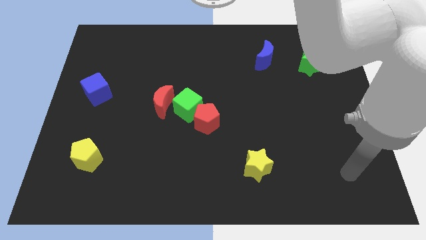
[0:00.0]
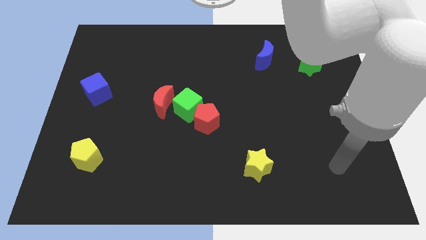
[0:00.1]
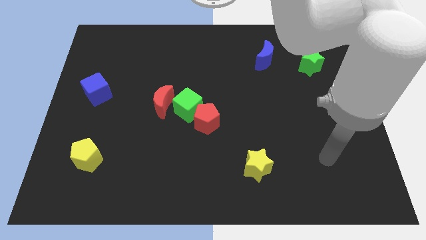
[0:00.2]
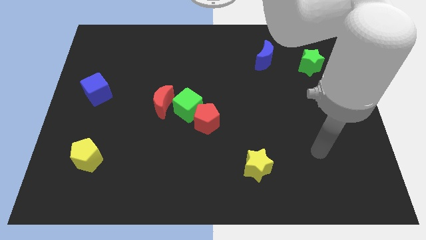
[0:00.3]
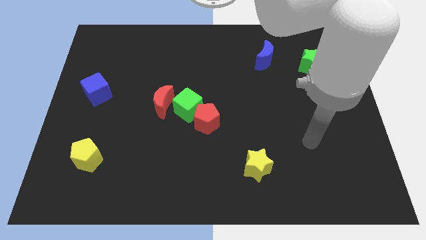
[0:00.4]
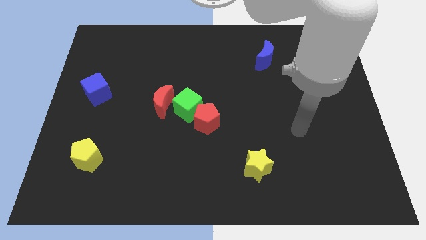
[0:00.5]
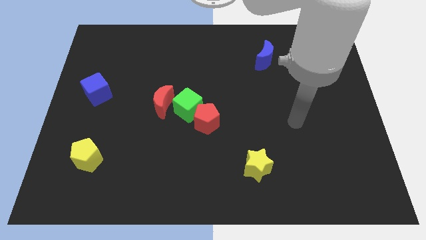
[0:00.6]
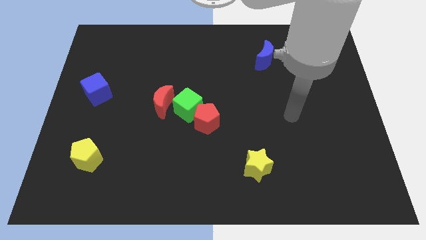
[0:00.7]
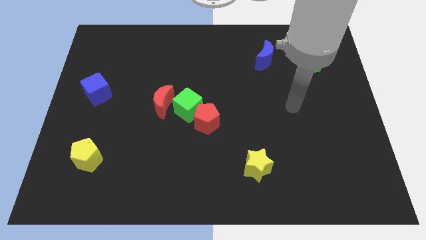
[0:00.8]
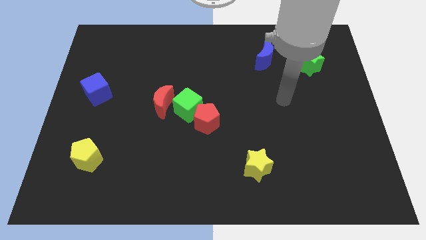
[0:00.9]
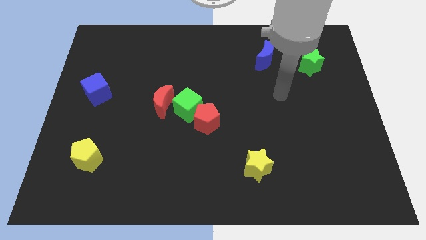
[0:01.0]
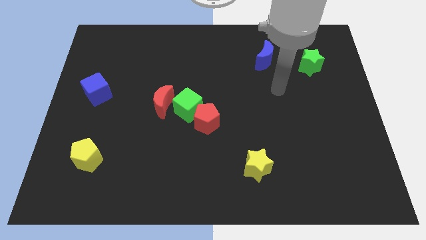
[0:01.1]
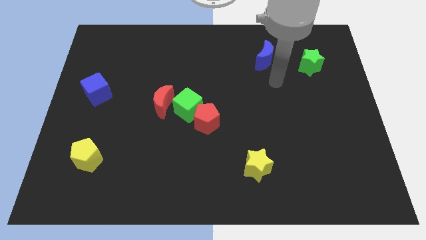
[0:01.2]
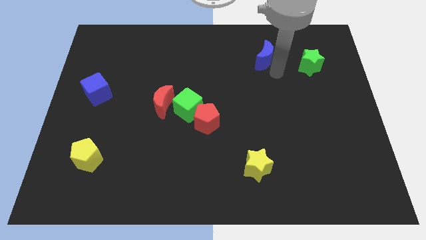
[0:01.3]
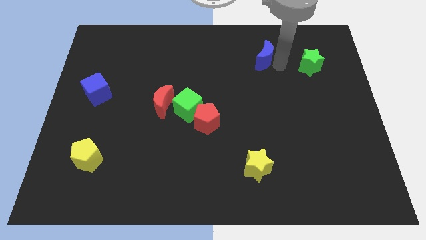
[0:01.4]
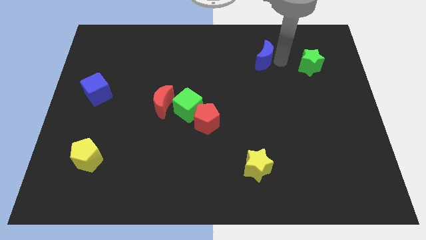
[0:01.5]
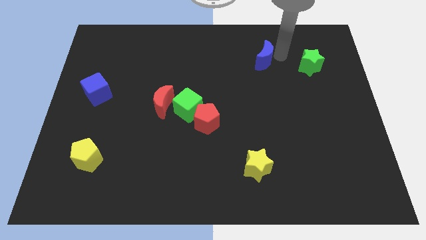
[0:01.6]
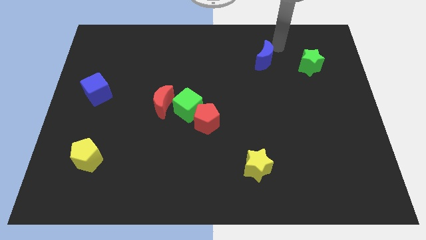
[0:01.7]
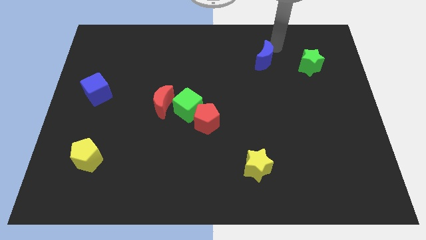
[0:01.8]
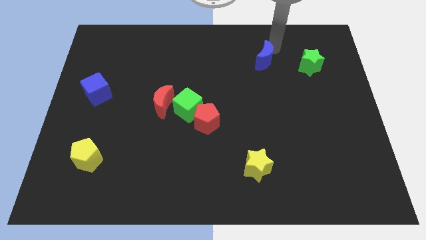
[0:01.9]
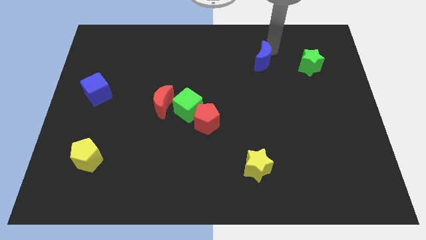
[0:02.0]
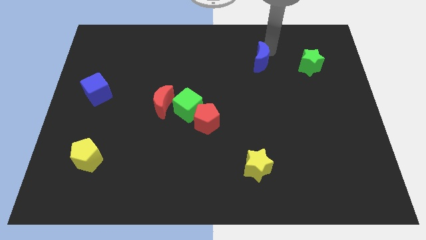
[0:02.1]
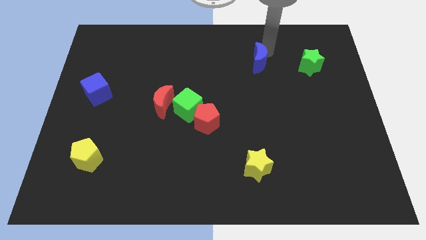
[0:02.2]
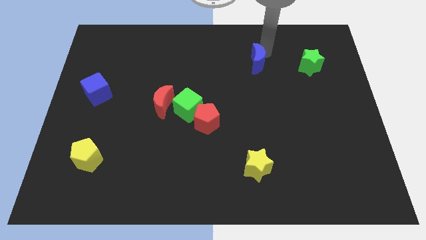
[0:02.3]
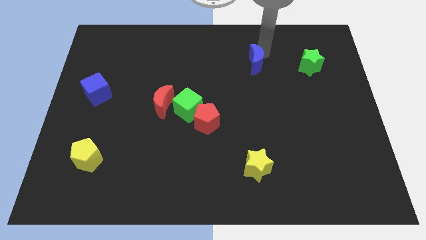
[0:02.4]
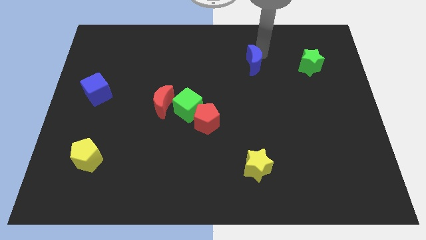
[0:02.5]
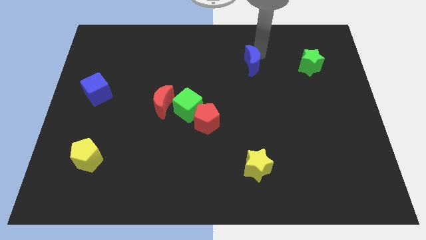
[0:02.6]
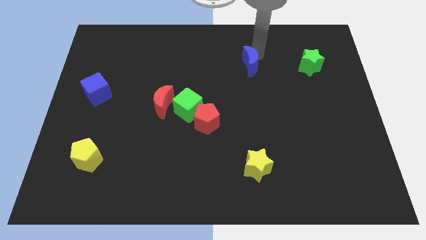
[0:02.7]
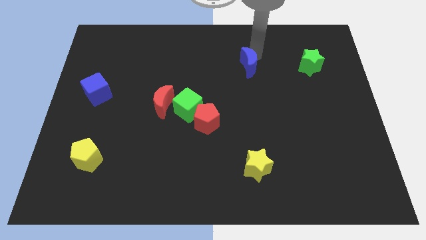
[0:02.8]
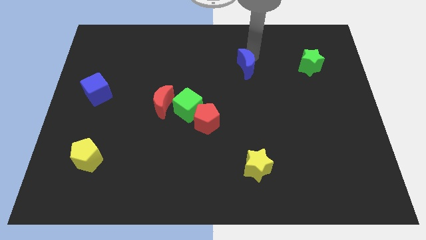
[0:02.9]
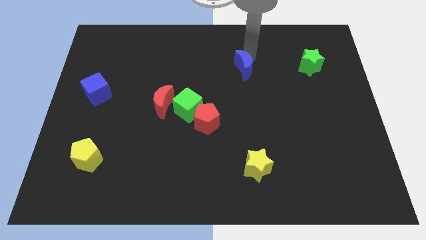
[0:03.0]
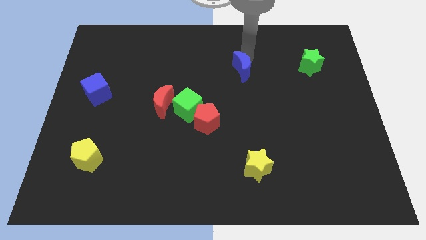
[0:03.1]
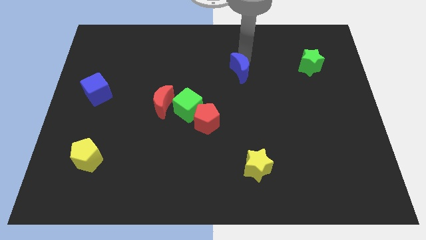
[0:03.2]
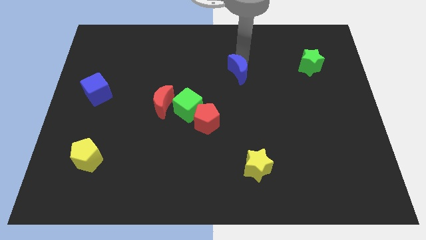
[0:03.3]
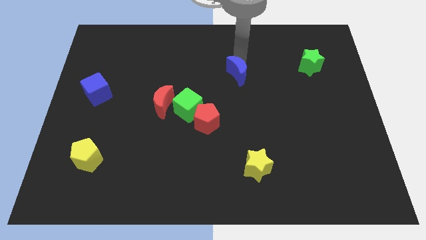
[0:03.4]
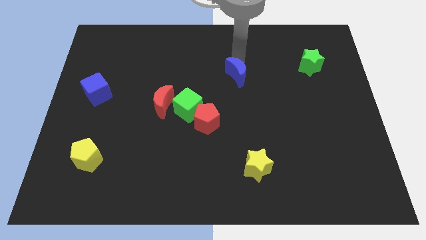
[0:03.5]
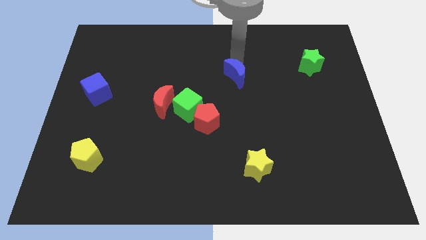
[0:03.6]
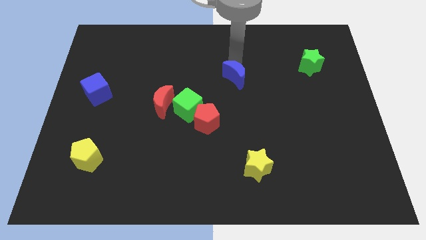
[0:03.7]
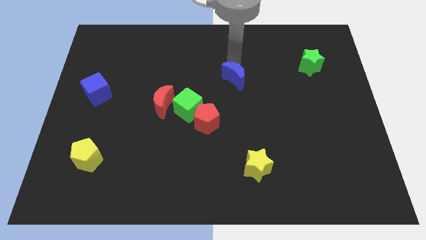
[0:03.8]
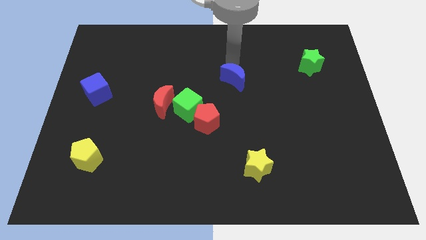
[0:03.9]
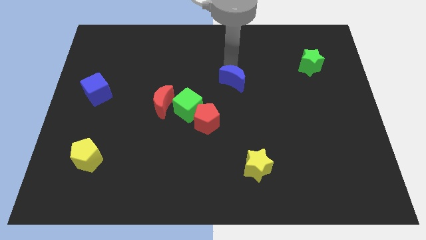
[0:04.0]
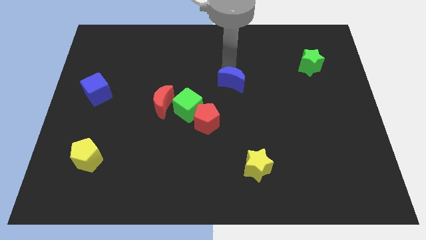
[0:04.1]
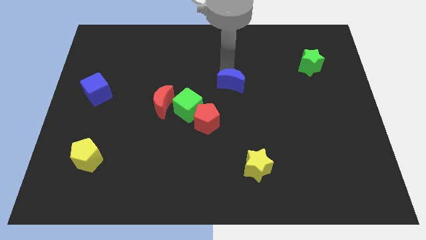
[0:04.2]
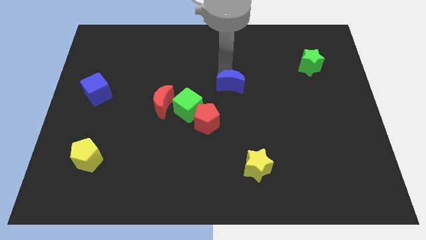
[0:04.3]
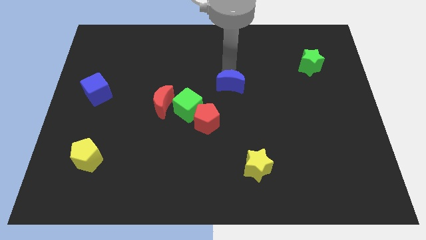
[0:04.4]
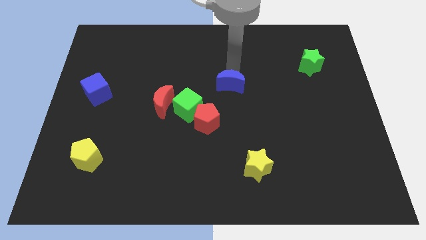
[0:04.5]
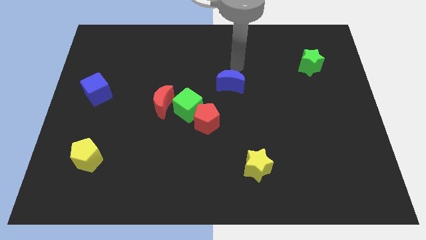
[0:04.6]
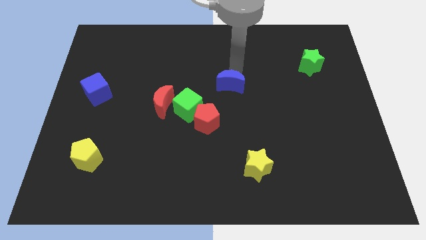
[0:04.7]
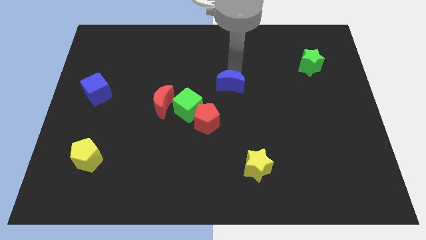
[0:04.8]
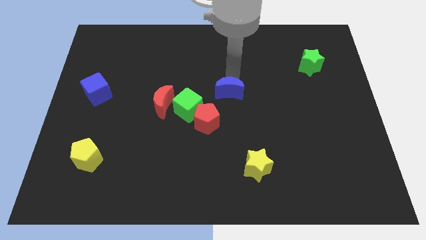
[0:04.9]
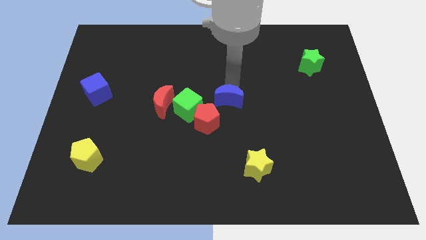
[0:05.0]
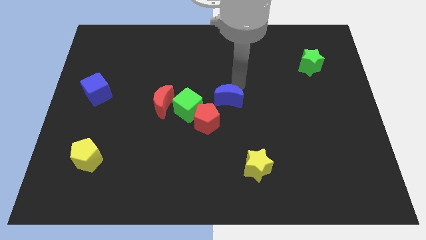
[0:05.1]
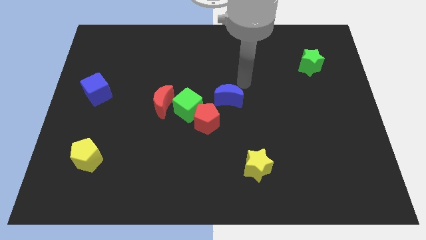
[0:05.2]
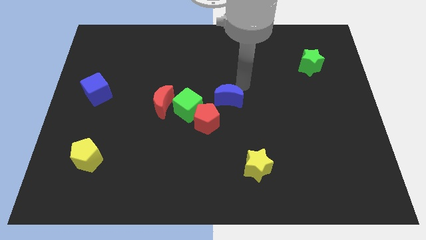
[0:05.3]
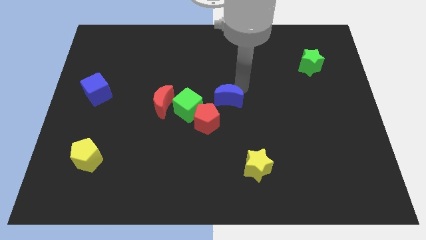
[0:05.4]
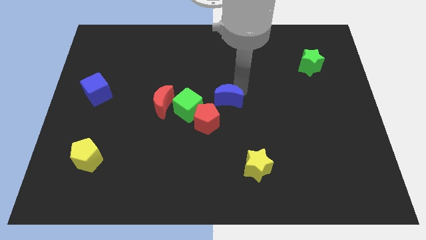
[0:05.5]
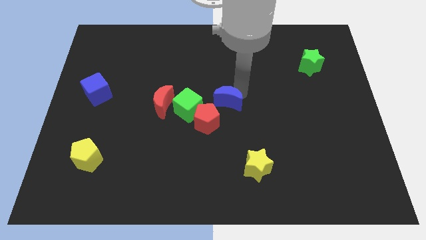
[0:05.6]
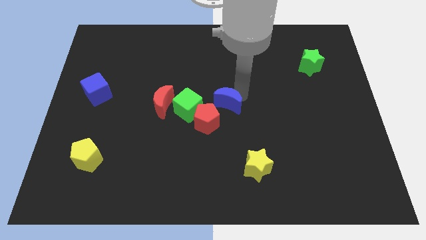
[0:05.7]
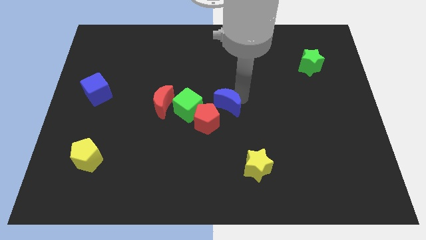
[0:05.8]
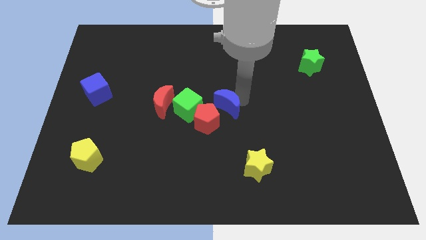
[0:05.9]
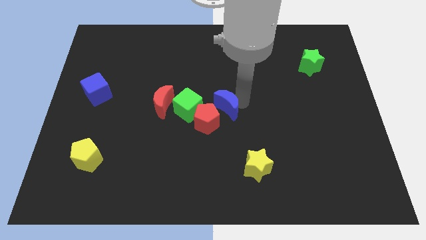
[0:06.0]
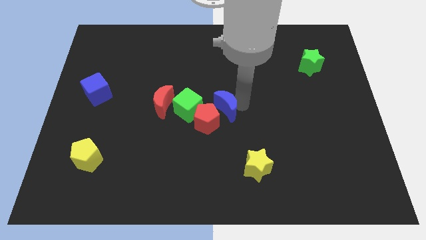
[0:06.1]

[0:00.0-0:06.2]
move the blue moon towards the red pentagon

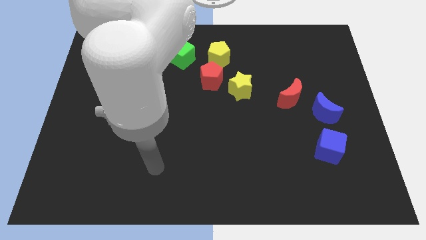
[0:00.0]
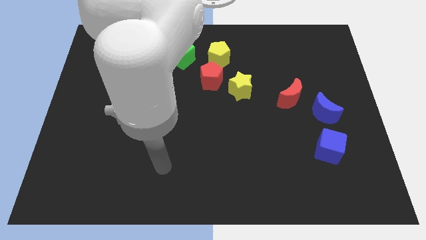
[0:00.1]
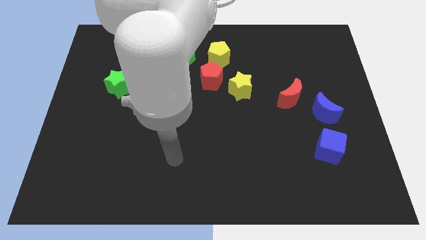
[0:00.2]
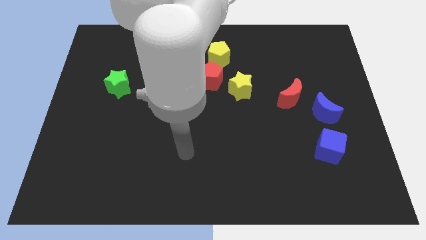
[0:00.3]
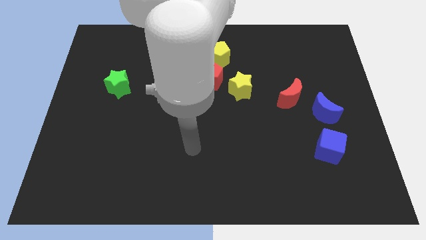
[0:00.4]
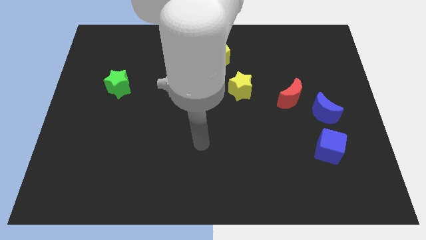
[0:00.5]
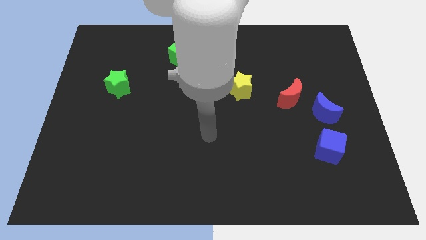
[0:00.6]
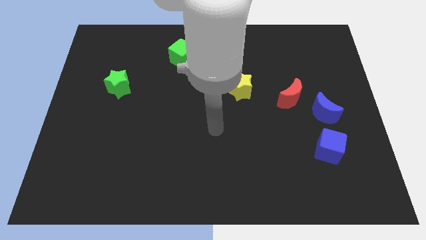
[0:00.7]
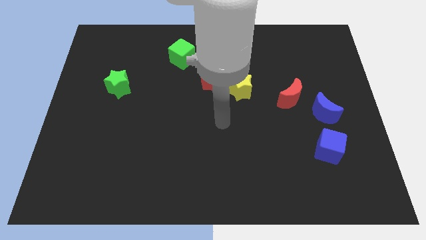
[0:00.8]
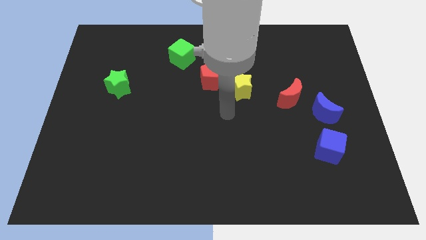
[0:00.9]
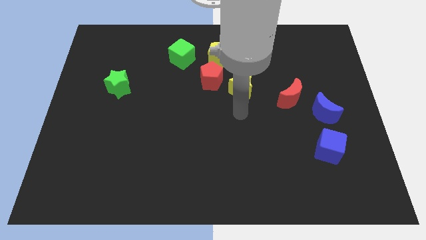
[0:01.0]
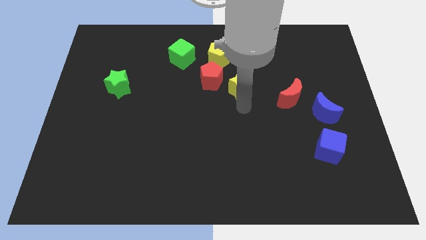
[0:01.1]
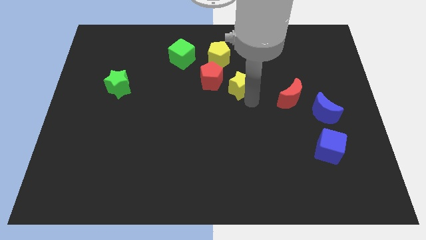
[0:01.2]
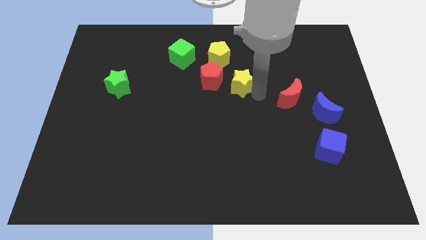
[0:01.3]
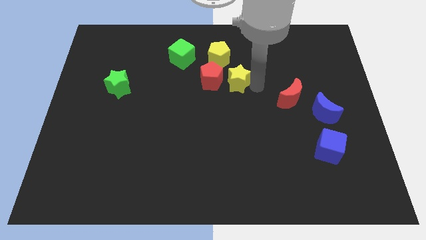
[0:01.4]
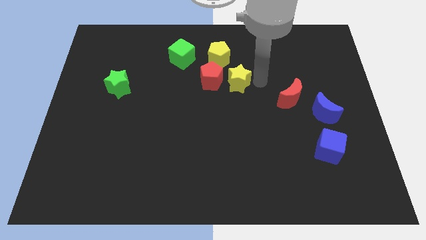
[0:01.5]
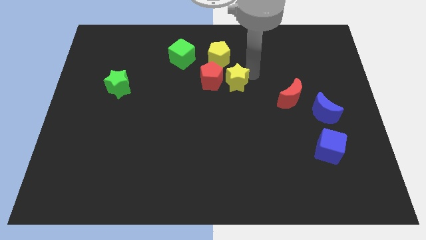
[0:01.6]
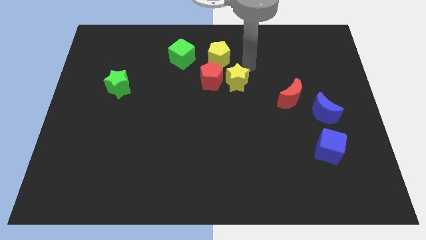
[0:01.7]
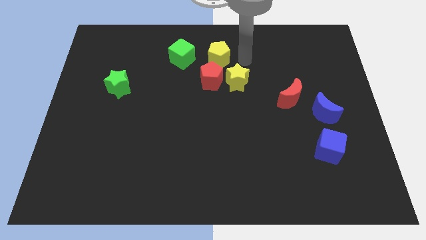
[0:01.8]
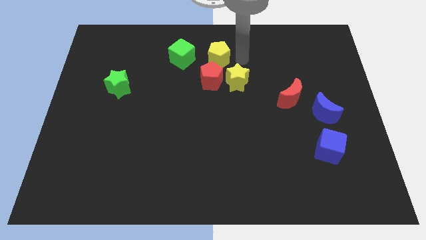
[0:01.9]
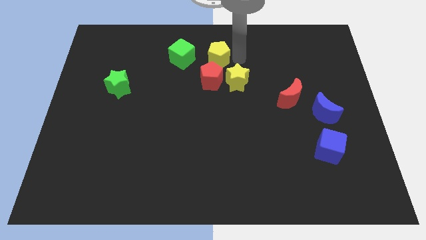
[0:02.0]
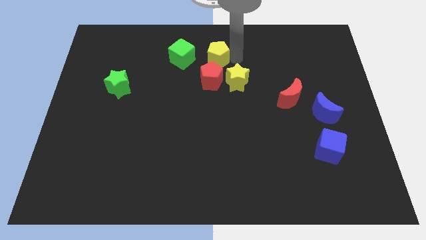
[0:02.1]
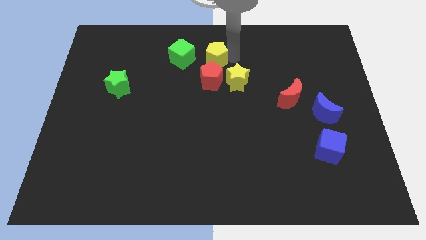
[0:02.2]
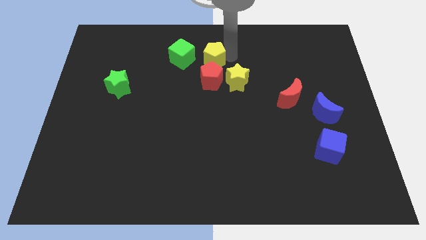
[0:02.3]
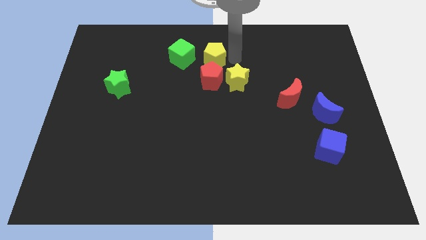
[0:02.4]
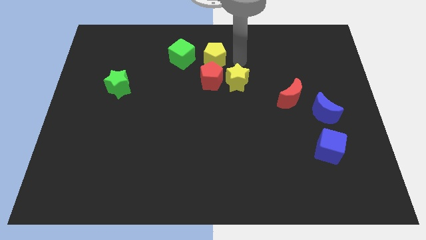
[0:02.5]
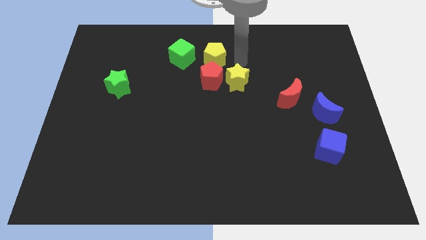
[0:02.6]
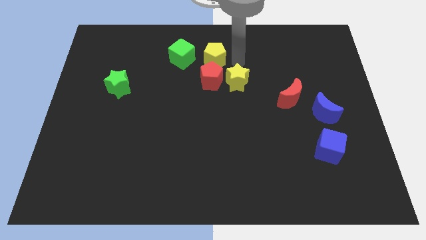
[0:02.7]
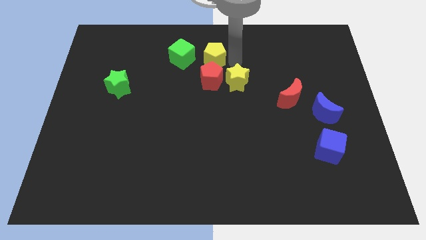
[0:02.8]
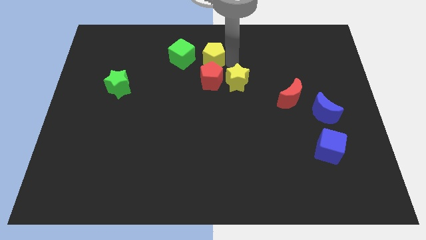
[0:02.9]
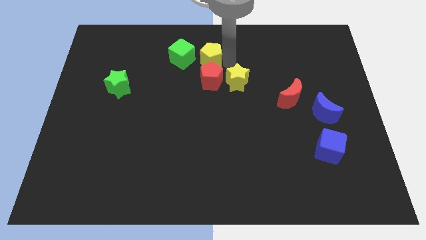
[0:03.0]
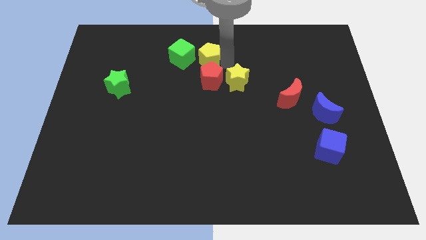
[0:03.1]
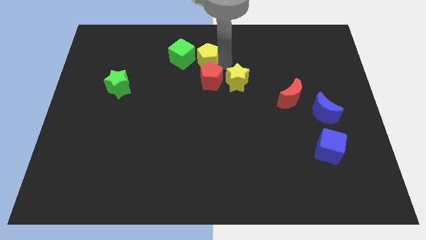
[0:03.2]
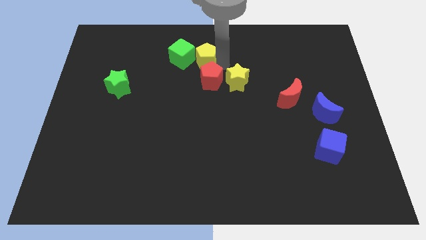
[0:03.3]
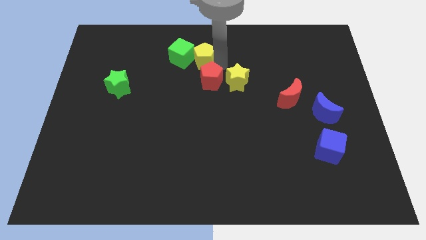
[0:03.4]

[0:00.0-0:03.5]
slide the yellow pentagon towards the green cube
